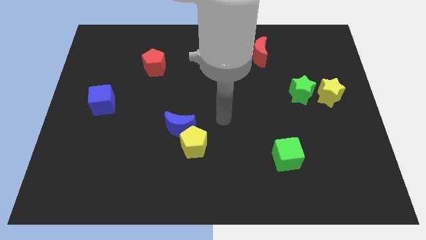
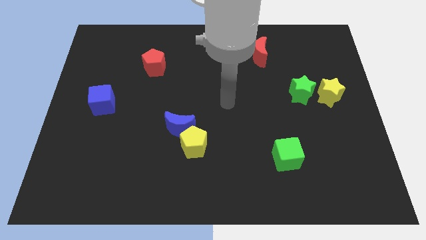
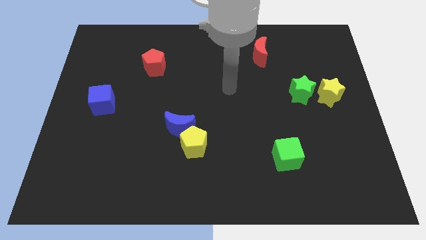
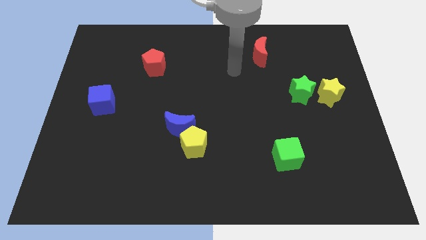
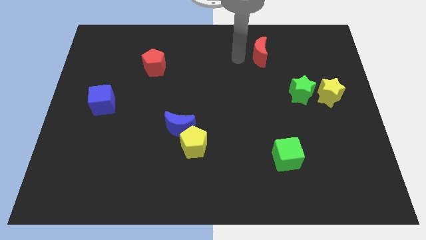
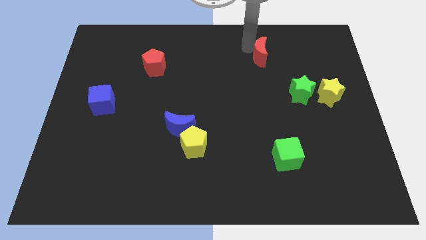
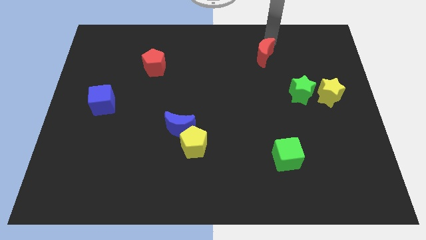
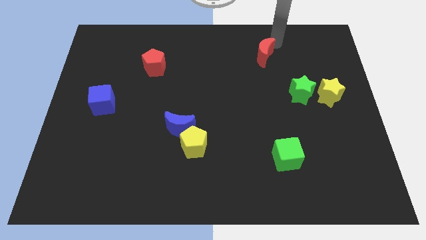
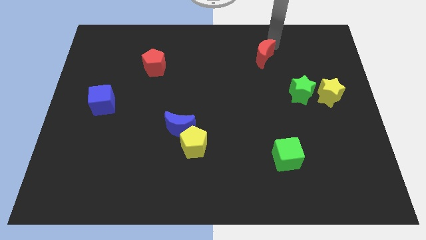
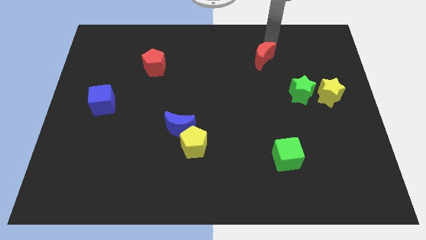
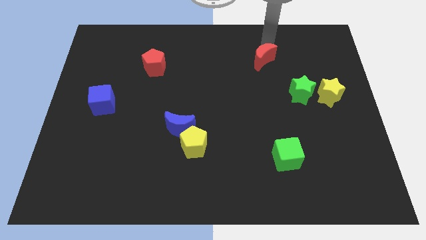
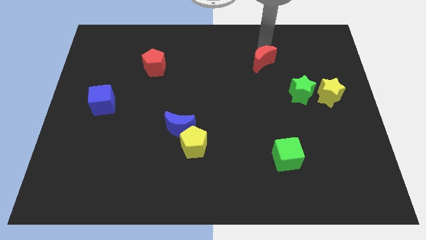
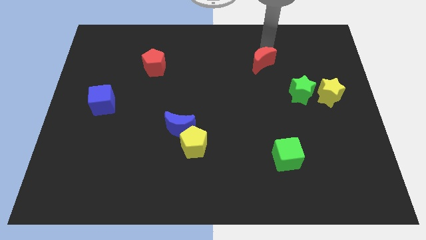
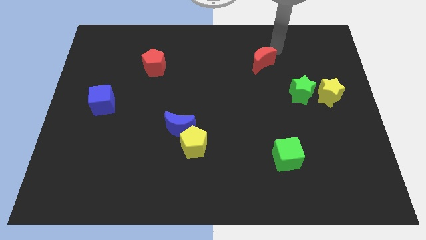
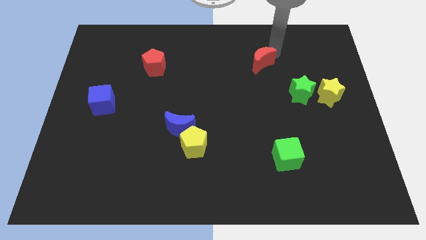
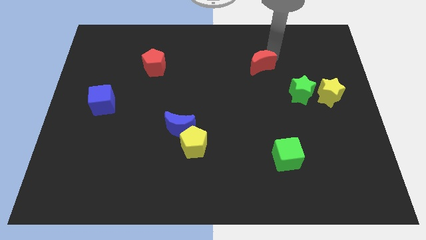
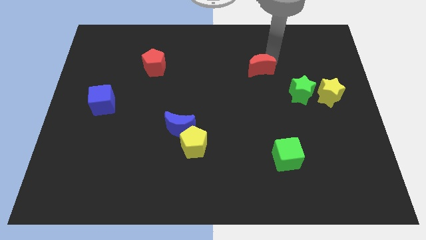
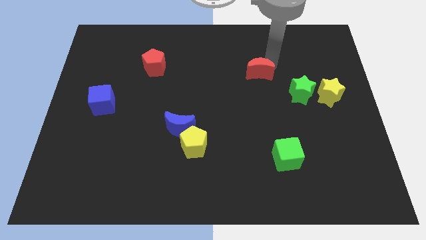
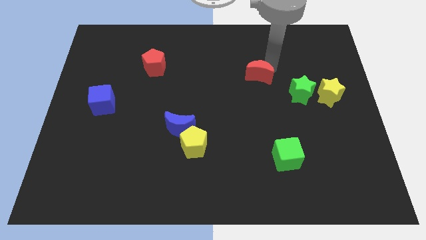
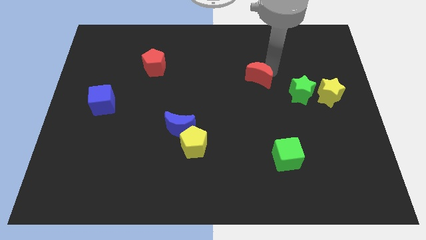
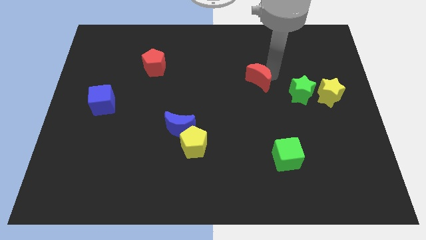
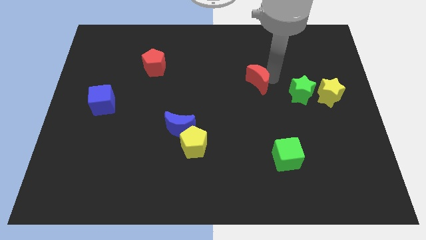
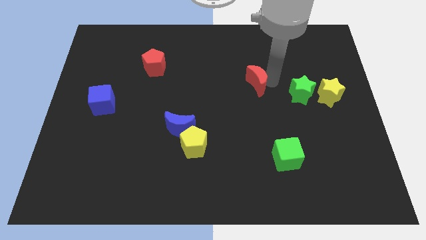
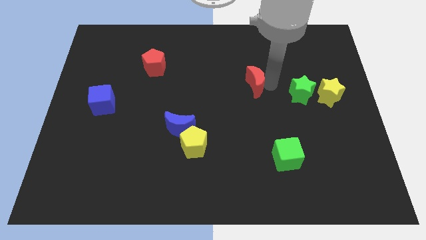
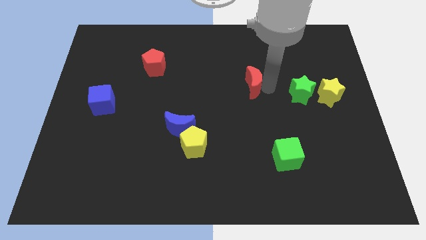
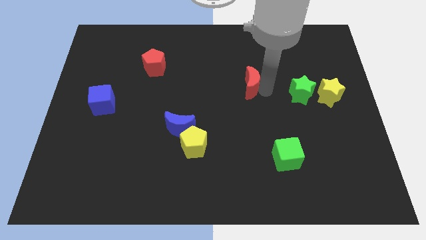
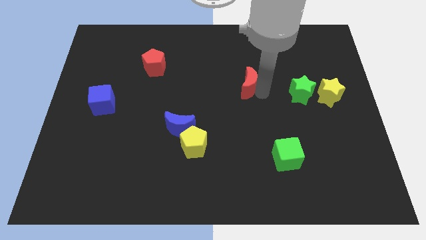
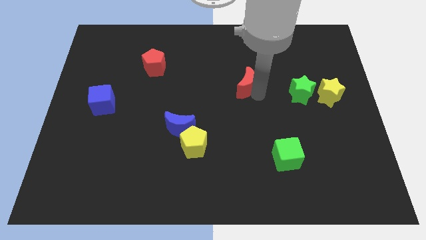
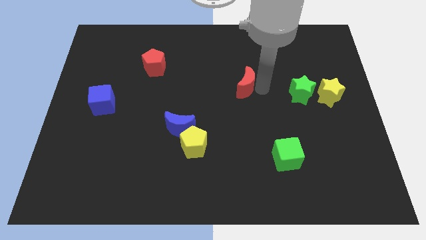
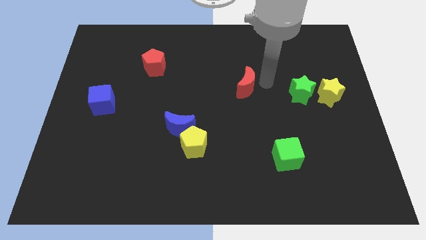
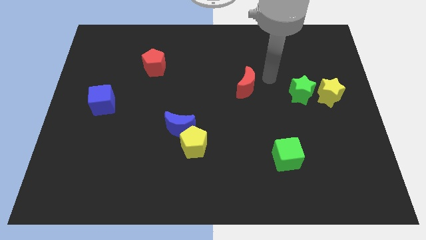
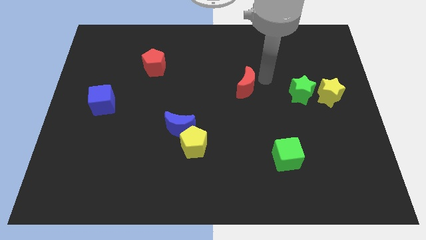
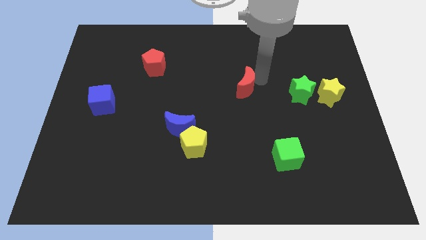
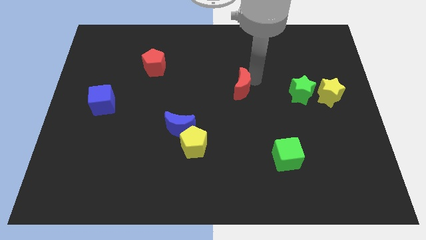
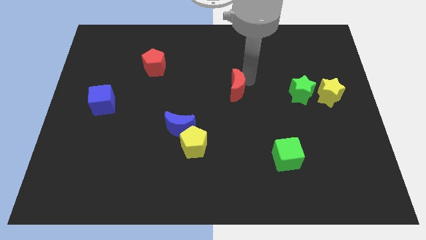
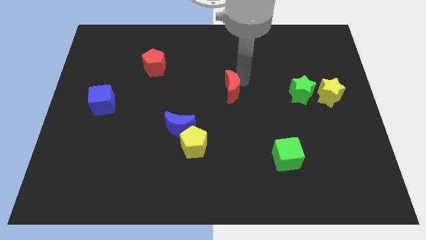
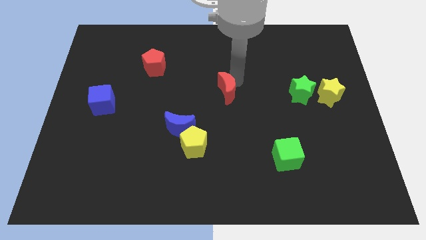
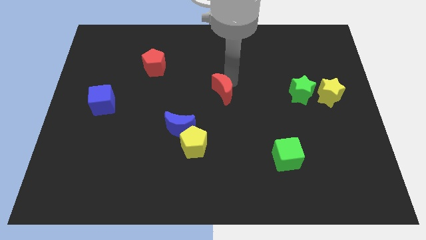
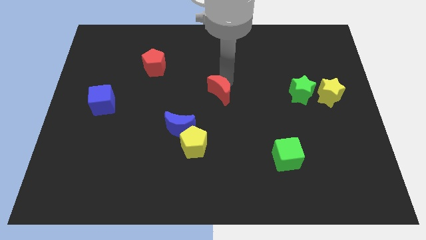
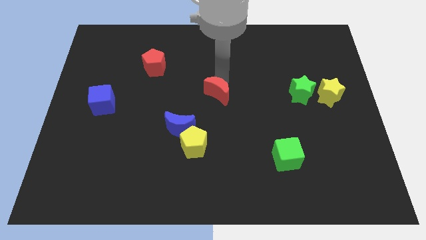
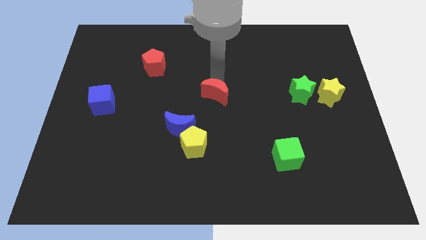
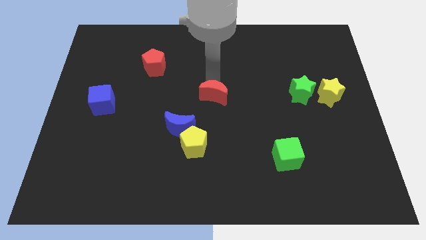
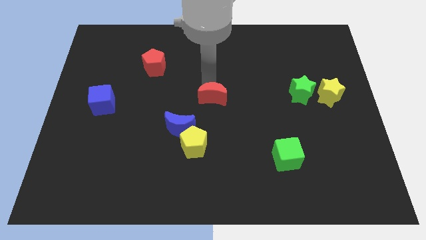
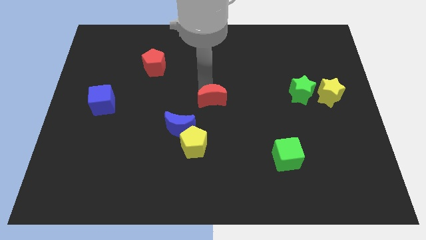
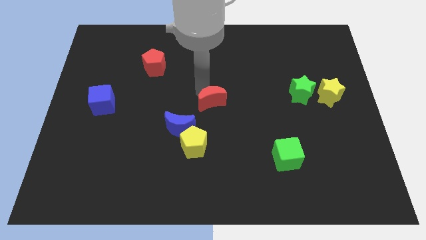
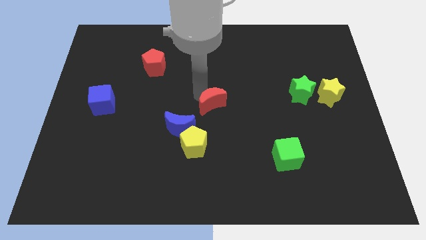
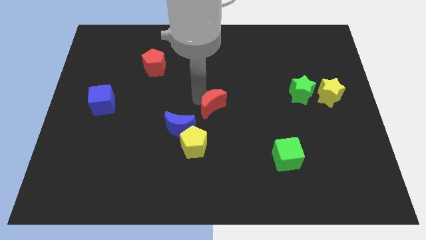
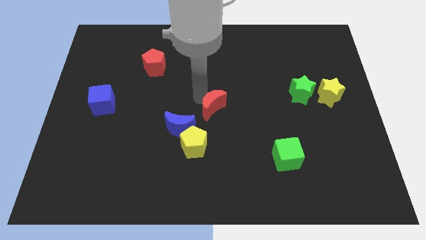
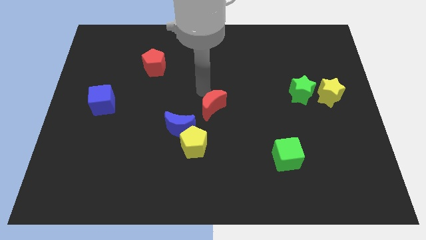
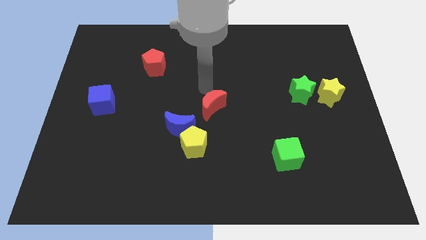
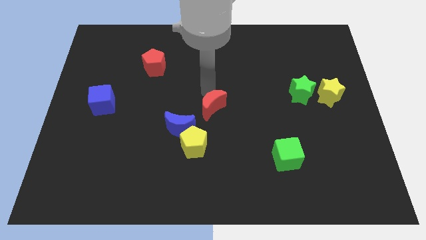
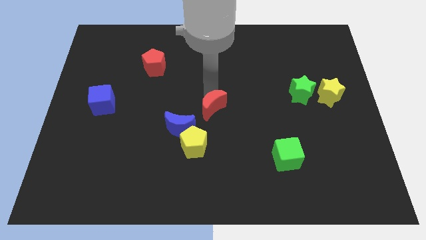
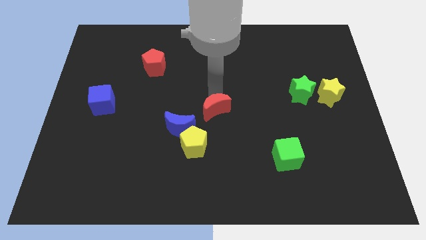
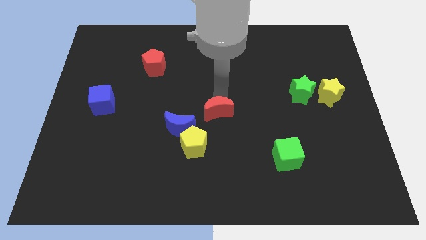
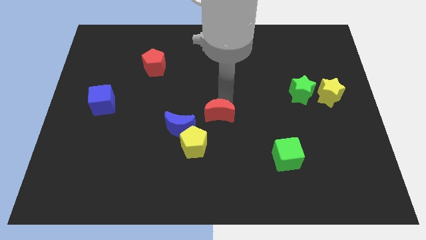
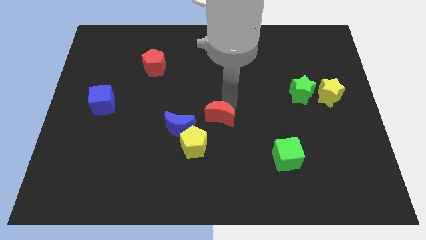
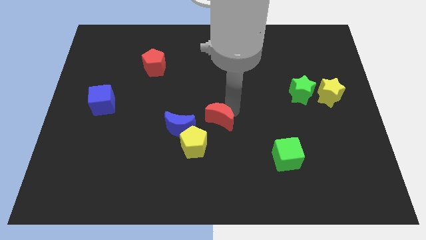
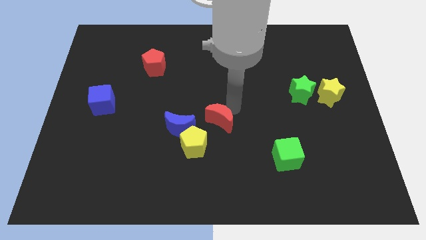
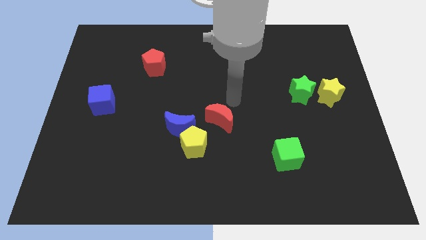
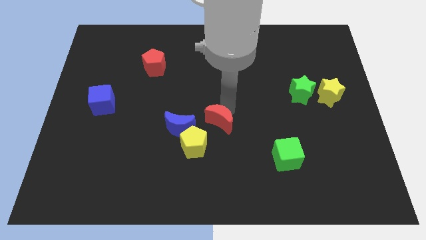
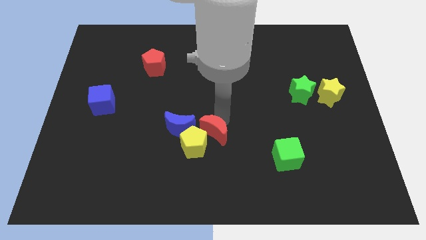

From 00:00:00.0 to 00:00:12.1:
move the red moon next to the yellow pentagon

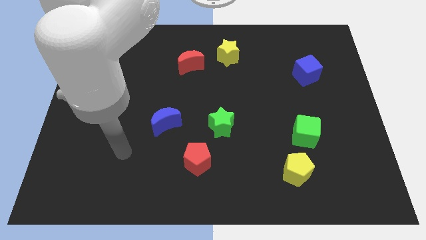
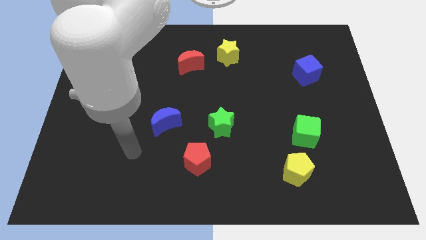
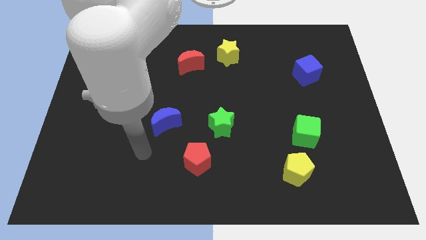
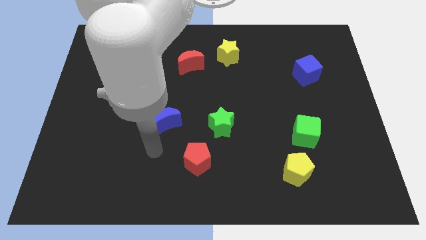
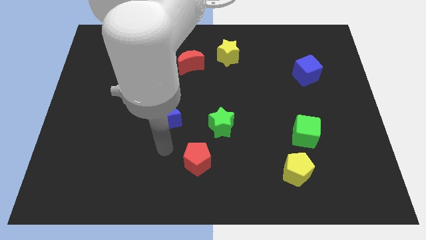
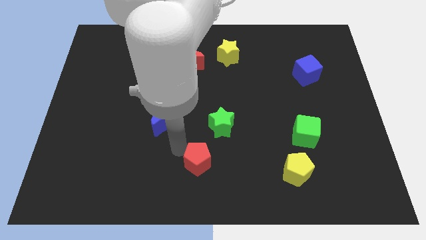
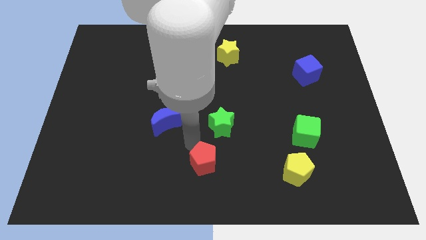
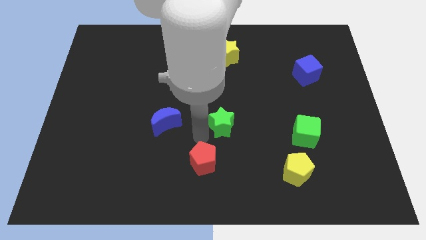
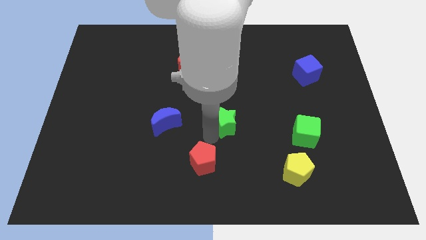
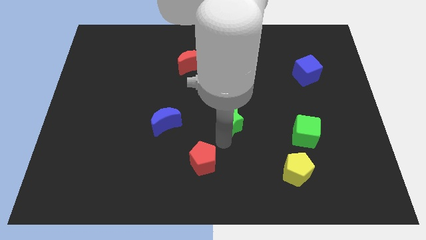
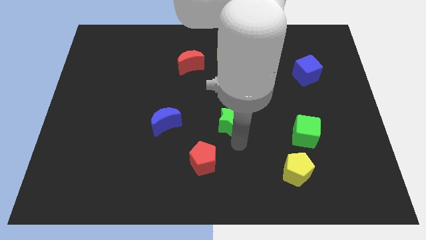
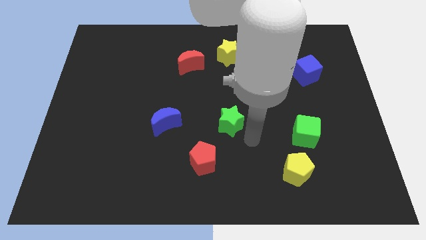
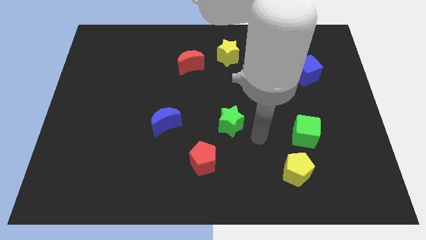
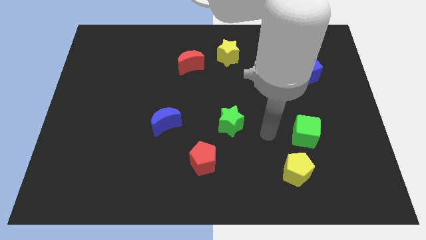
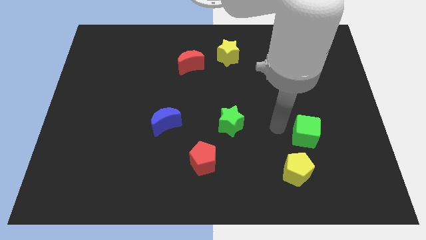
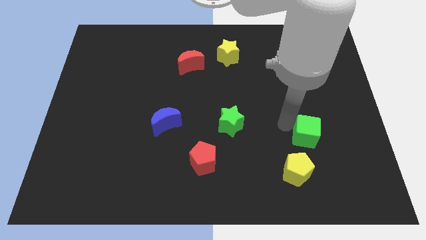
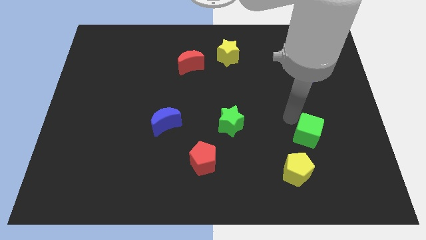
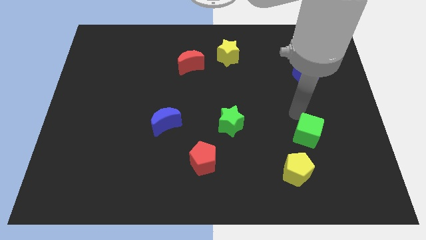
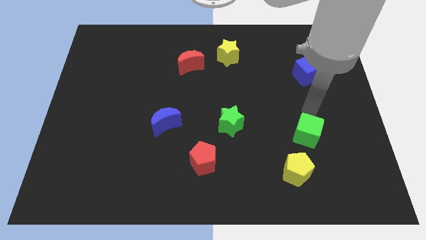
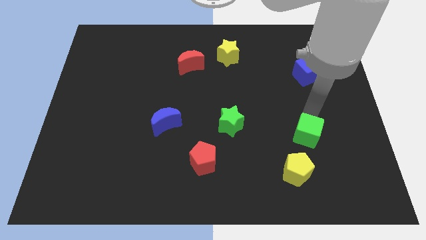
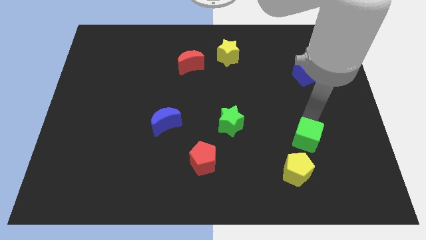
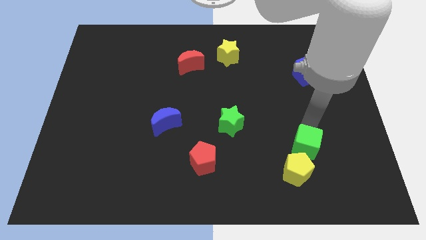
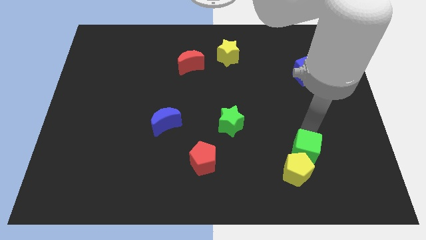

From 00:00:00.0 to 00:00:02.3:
slide the green cube close to the yellow pentagon
